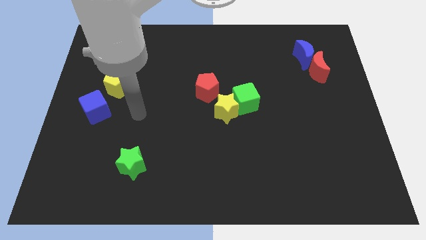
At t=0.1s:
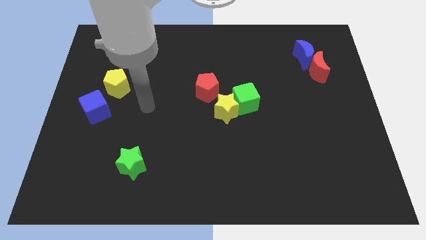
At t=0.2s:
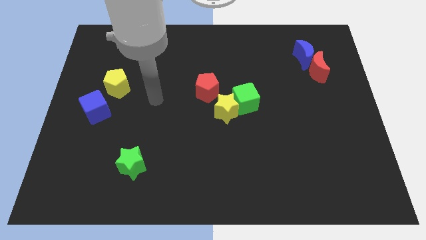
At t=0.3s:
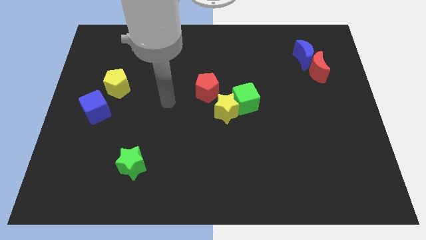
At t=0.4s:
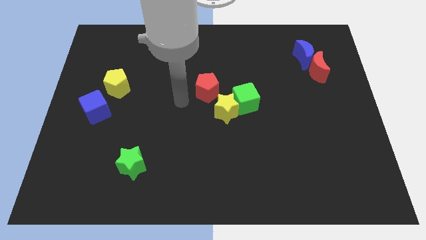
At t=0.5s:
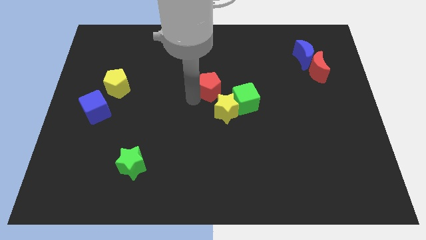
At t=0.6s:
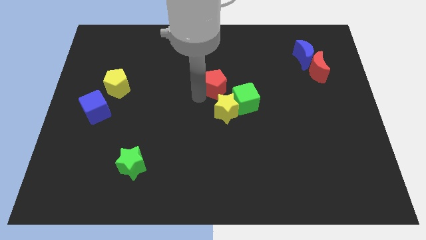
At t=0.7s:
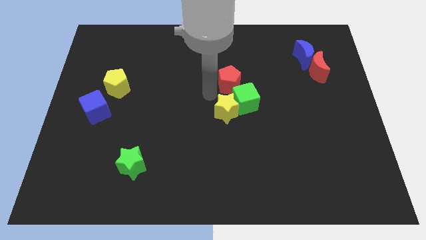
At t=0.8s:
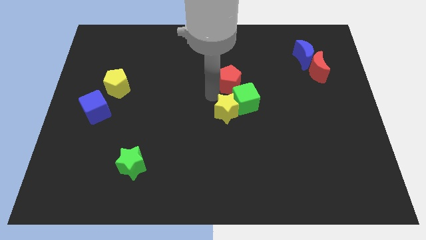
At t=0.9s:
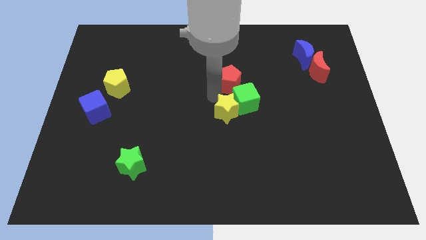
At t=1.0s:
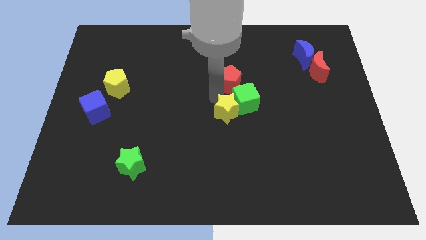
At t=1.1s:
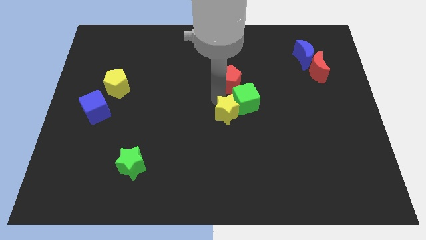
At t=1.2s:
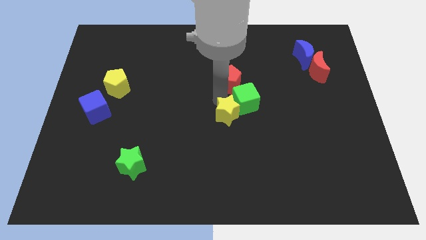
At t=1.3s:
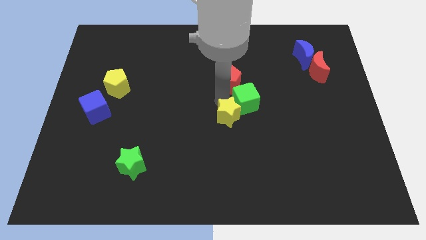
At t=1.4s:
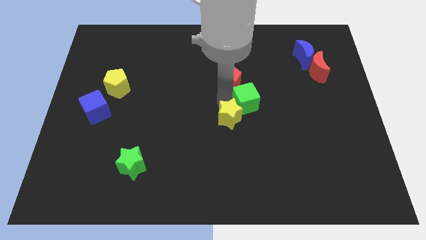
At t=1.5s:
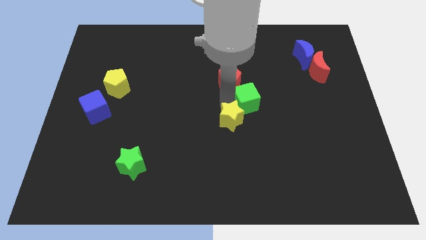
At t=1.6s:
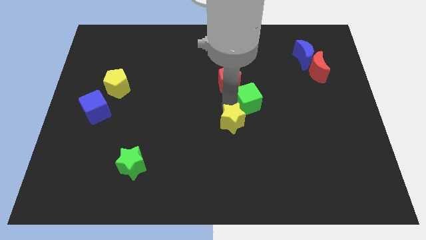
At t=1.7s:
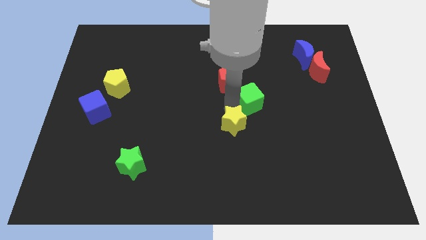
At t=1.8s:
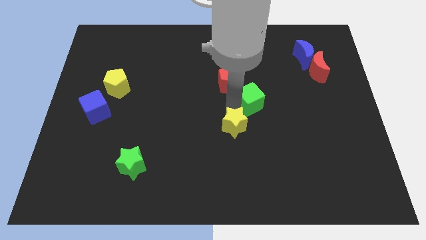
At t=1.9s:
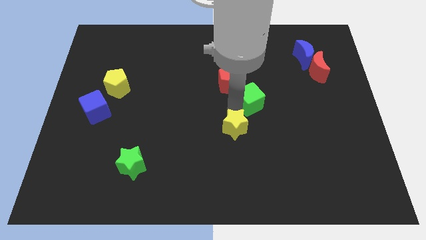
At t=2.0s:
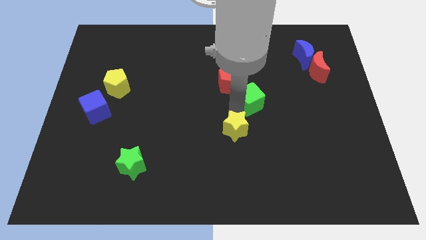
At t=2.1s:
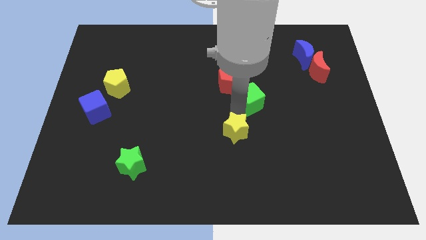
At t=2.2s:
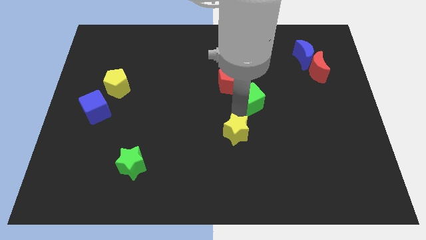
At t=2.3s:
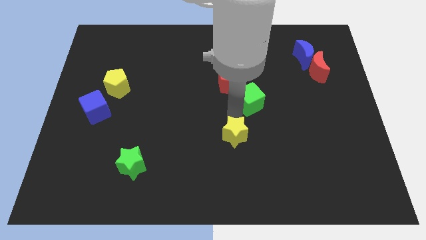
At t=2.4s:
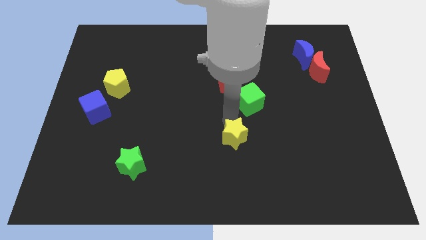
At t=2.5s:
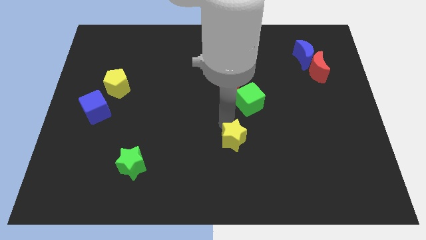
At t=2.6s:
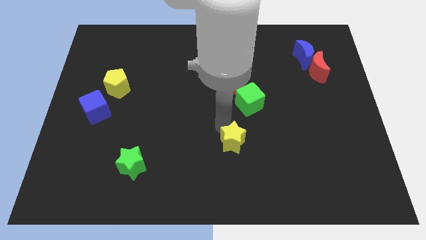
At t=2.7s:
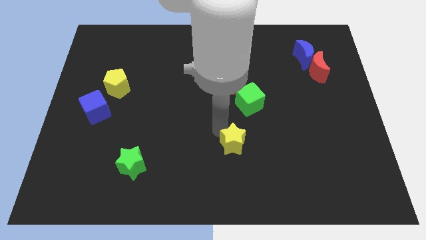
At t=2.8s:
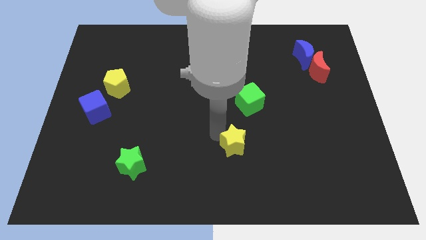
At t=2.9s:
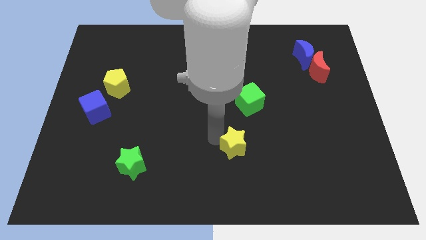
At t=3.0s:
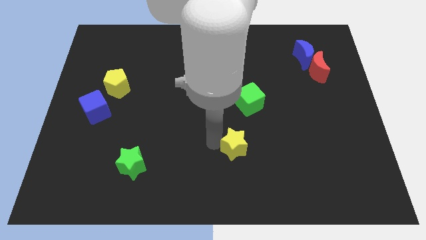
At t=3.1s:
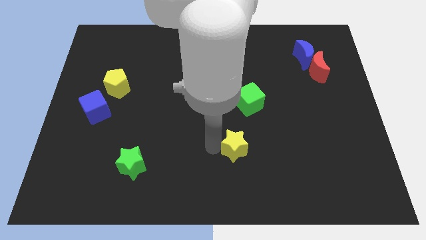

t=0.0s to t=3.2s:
slide the yellow star down and then right a little bit

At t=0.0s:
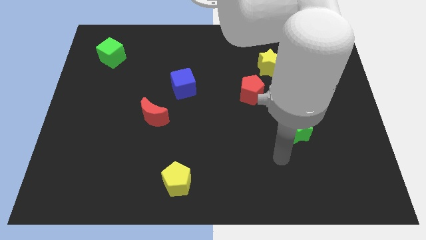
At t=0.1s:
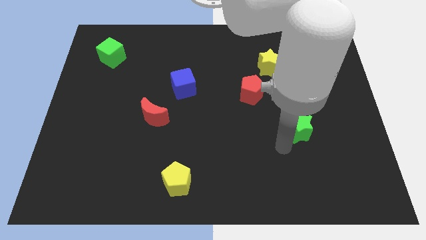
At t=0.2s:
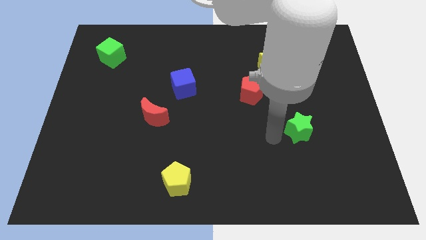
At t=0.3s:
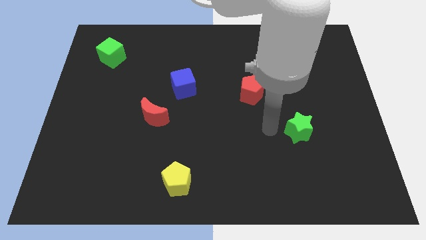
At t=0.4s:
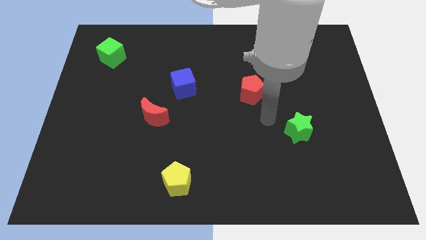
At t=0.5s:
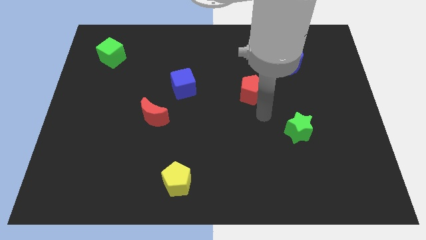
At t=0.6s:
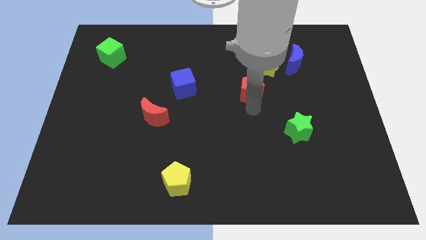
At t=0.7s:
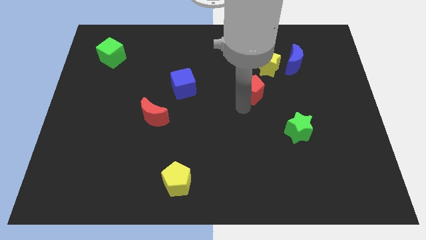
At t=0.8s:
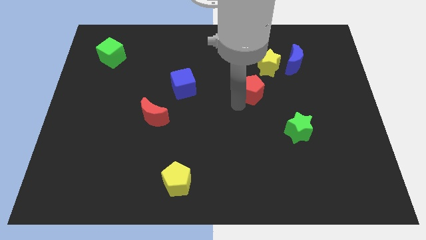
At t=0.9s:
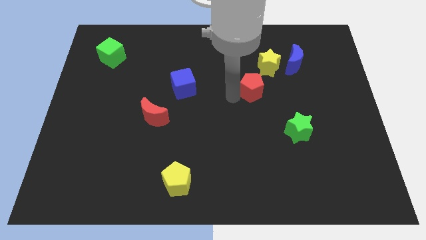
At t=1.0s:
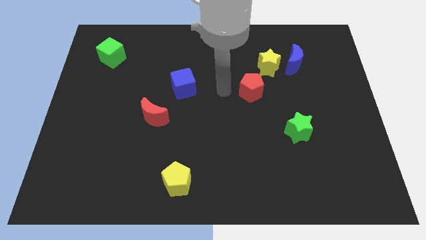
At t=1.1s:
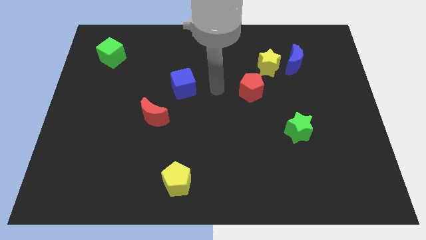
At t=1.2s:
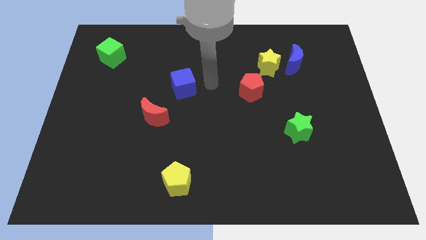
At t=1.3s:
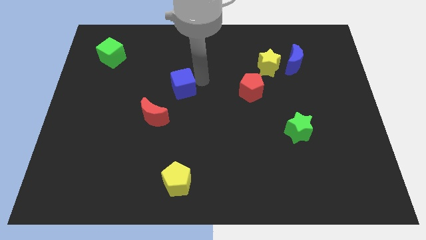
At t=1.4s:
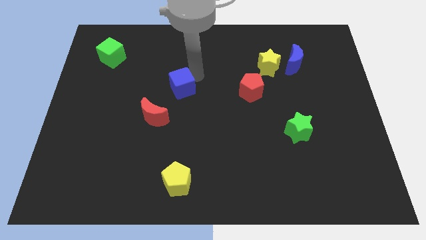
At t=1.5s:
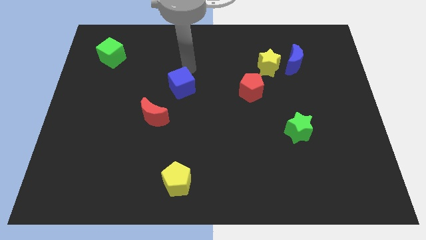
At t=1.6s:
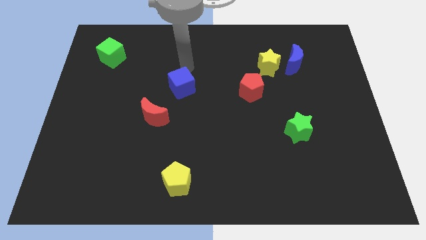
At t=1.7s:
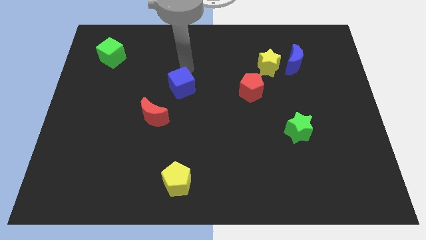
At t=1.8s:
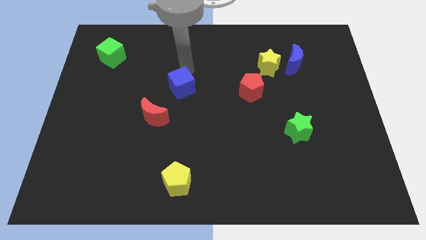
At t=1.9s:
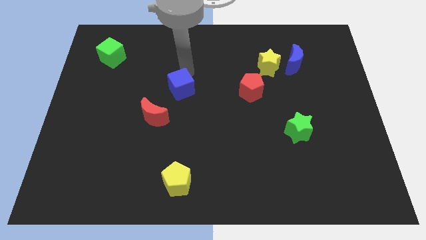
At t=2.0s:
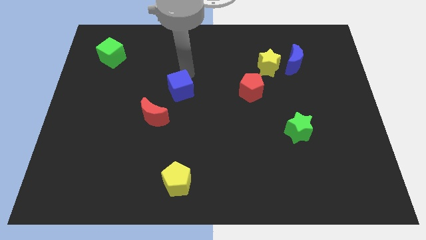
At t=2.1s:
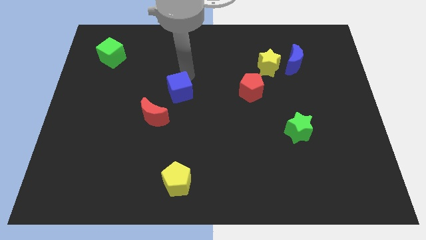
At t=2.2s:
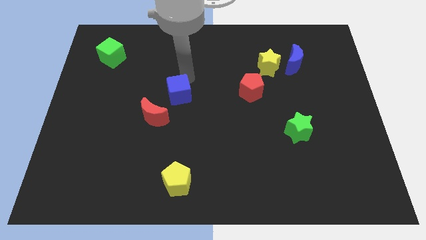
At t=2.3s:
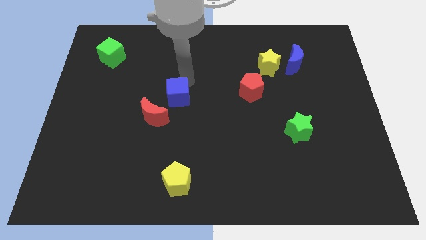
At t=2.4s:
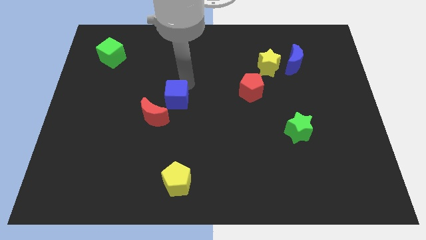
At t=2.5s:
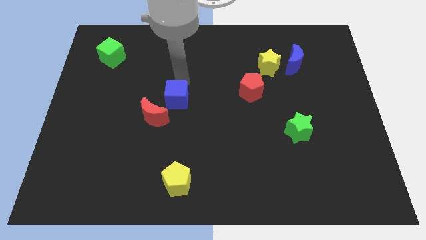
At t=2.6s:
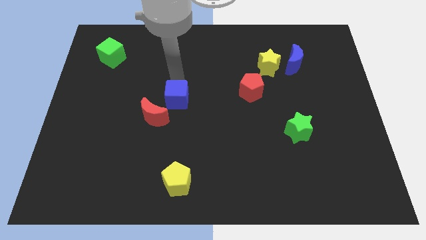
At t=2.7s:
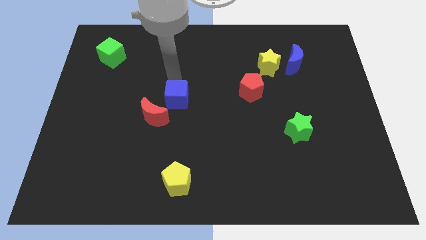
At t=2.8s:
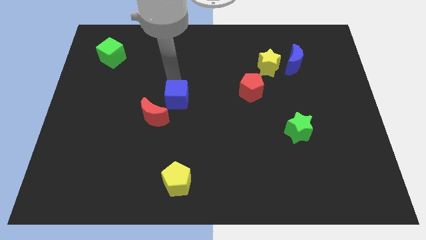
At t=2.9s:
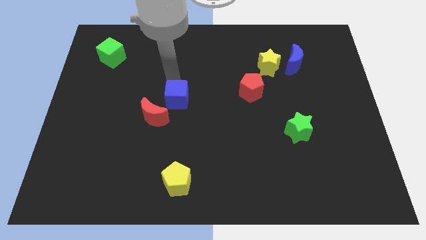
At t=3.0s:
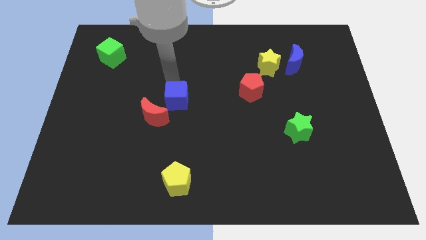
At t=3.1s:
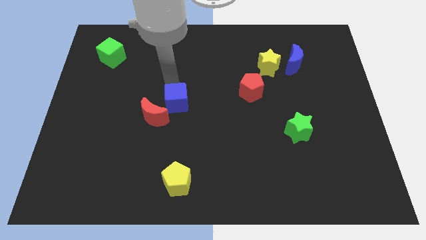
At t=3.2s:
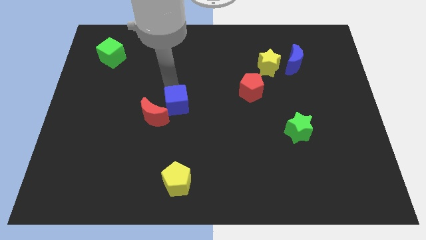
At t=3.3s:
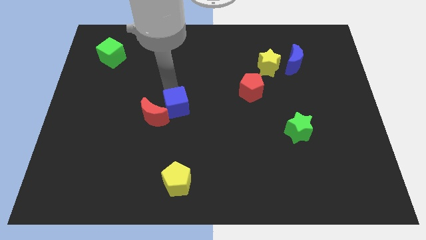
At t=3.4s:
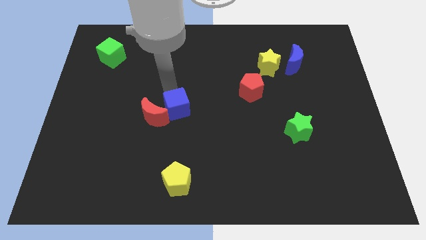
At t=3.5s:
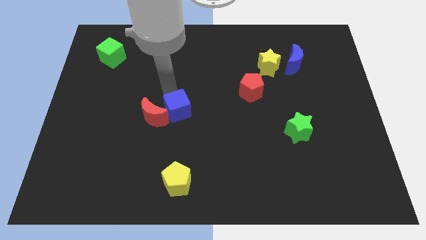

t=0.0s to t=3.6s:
slightly slide the blue cube downwards

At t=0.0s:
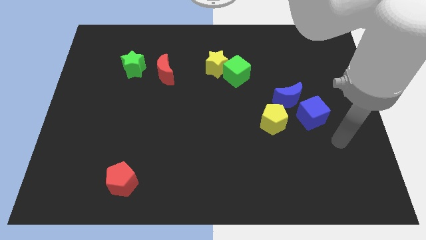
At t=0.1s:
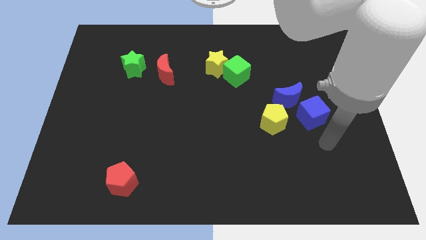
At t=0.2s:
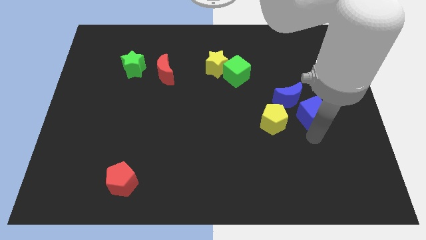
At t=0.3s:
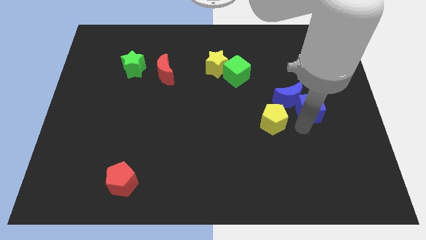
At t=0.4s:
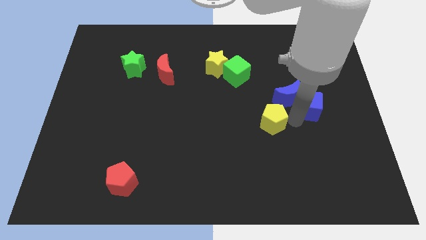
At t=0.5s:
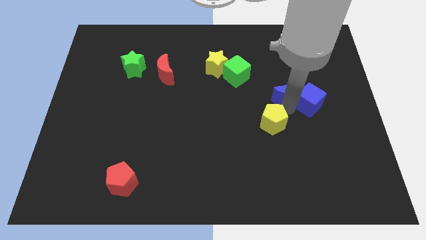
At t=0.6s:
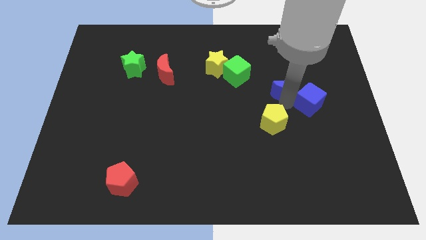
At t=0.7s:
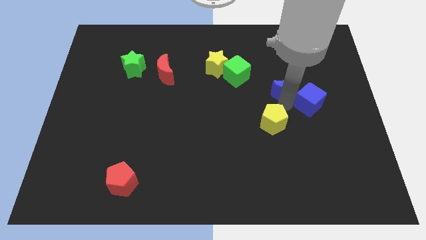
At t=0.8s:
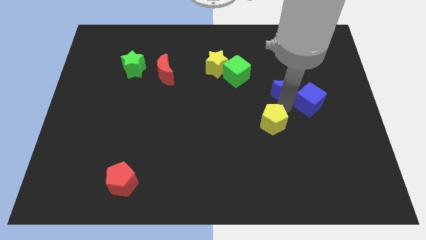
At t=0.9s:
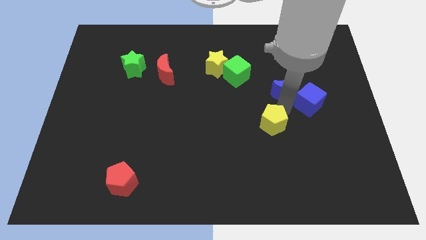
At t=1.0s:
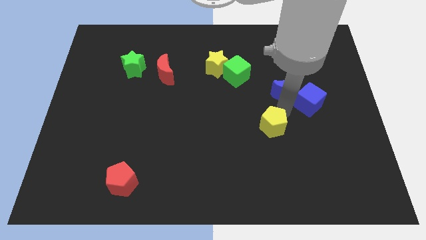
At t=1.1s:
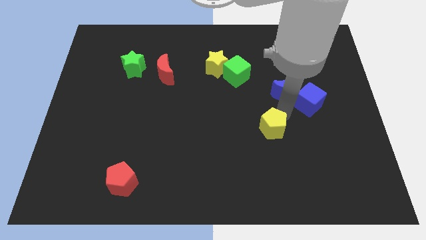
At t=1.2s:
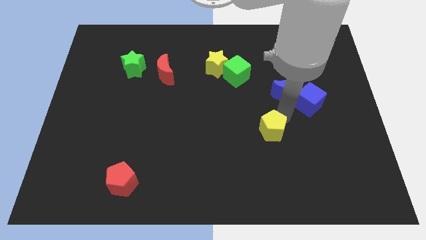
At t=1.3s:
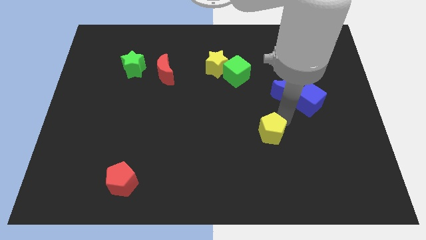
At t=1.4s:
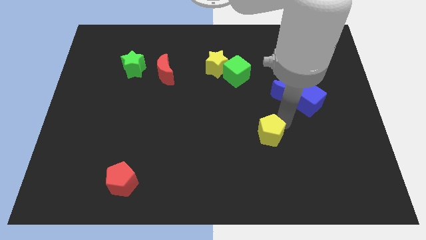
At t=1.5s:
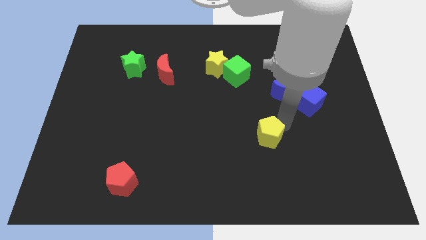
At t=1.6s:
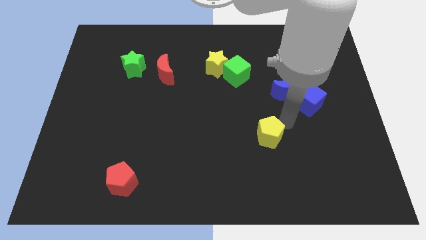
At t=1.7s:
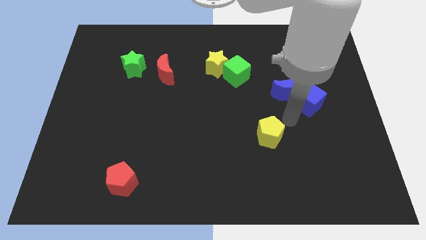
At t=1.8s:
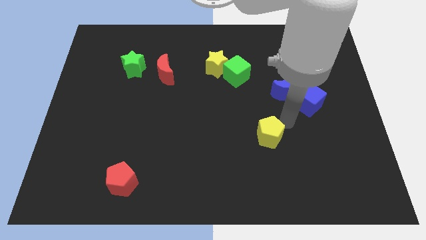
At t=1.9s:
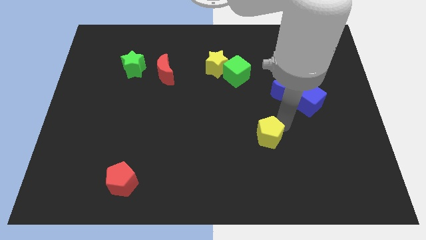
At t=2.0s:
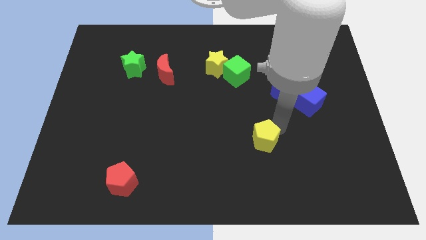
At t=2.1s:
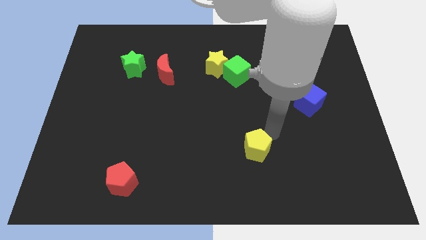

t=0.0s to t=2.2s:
slide the yellow pentagon a little downwards and left diagonally
